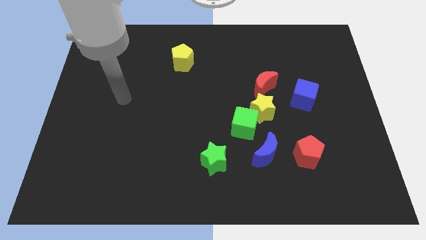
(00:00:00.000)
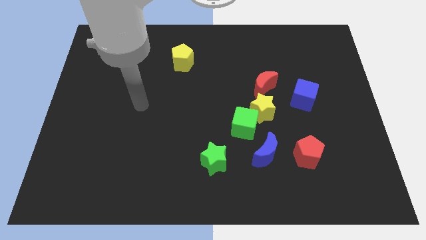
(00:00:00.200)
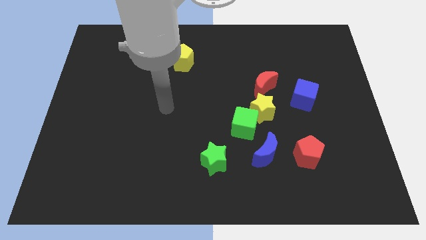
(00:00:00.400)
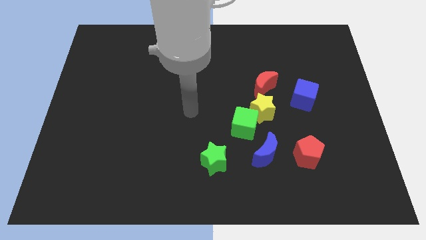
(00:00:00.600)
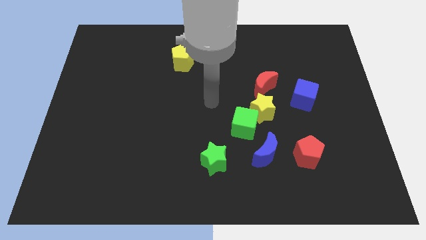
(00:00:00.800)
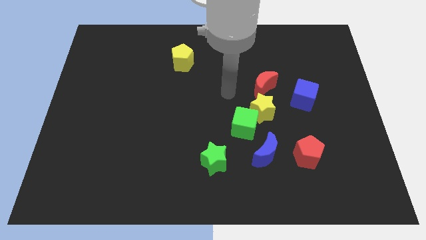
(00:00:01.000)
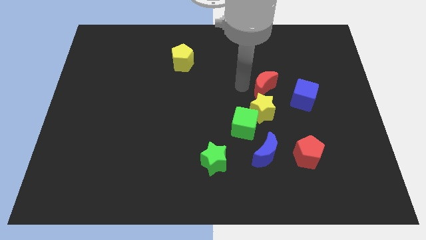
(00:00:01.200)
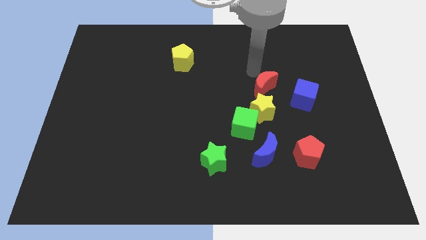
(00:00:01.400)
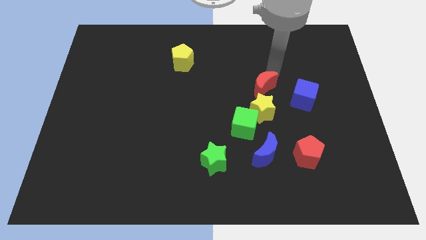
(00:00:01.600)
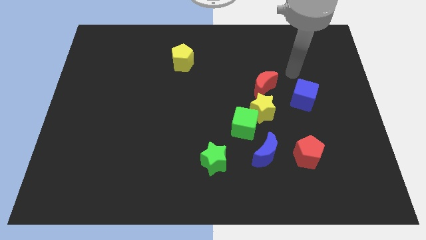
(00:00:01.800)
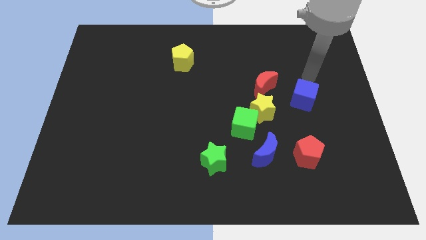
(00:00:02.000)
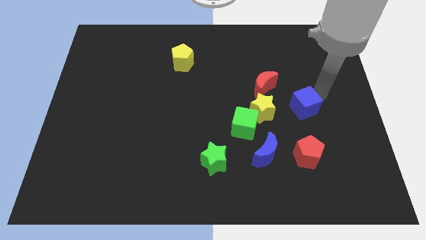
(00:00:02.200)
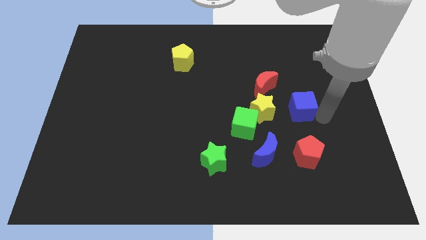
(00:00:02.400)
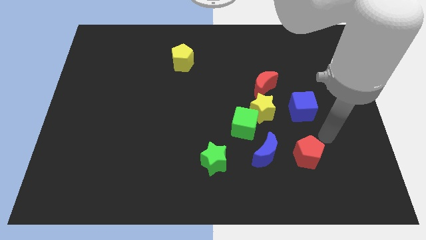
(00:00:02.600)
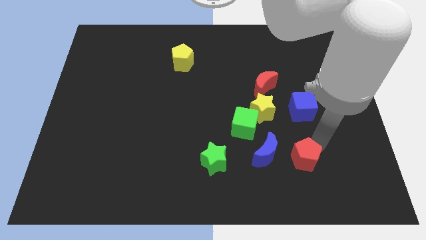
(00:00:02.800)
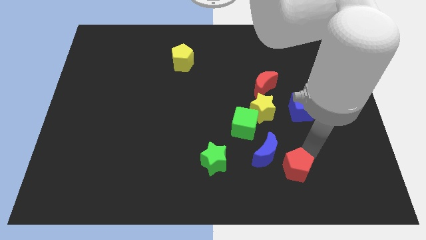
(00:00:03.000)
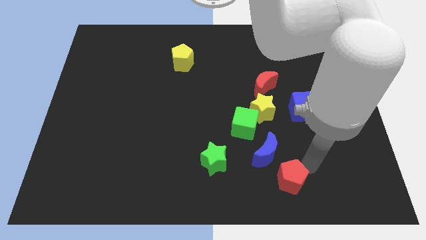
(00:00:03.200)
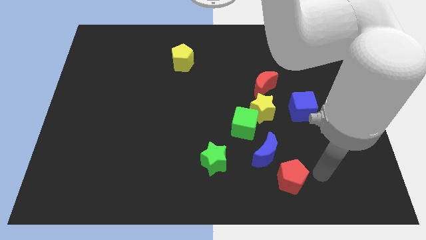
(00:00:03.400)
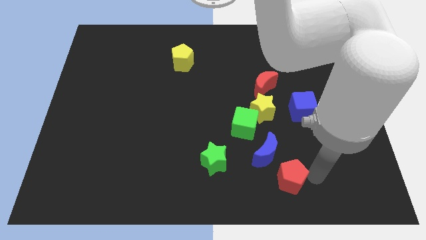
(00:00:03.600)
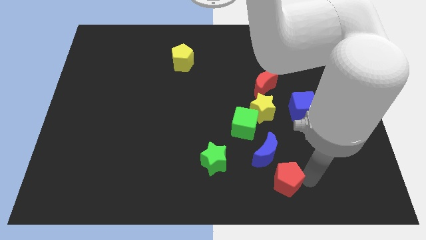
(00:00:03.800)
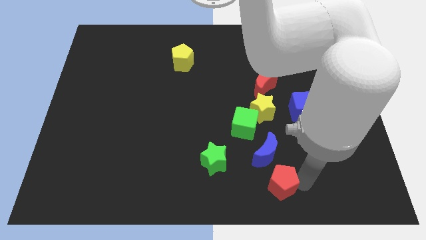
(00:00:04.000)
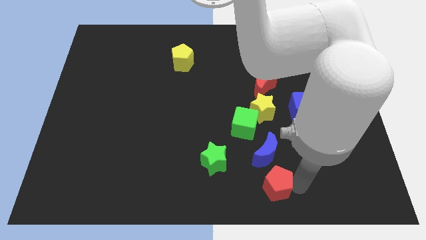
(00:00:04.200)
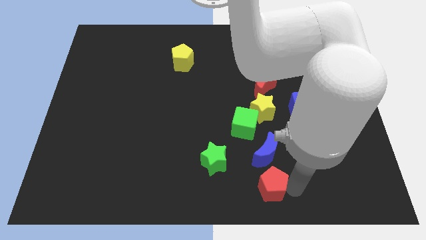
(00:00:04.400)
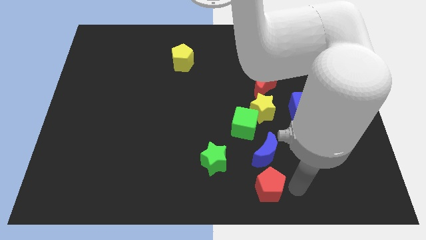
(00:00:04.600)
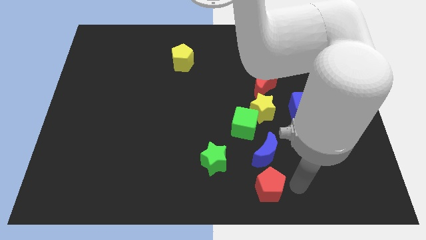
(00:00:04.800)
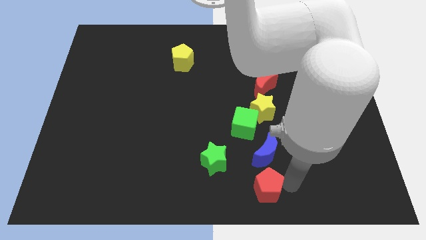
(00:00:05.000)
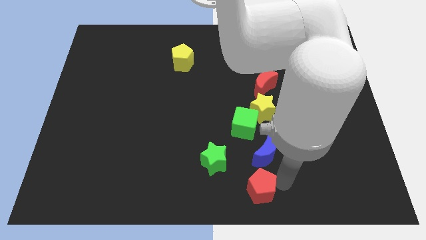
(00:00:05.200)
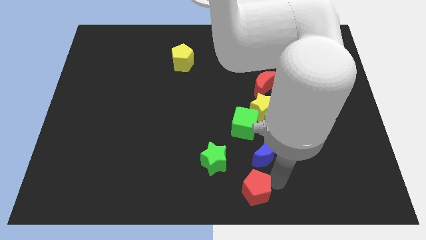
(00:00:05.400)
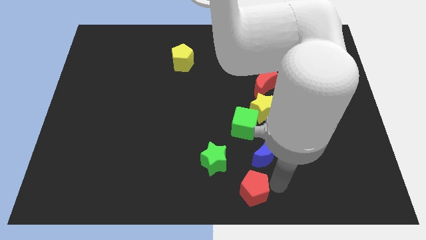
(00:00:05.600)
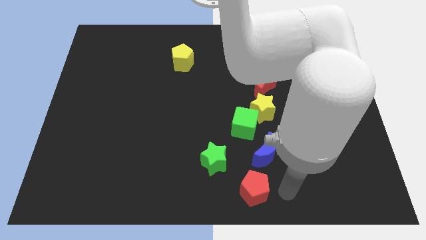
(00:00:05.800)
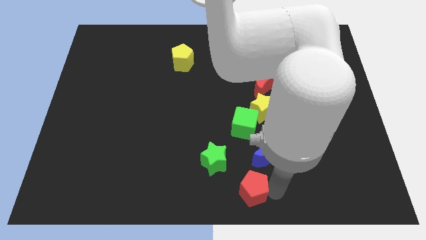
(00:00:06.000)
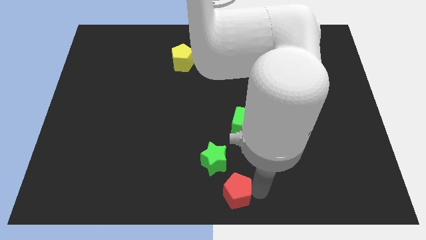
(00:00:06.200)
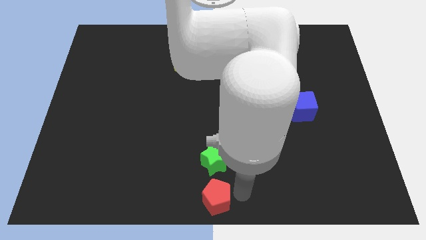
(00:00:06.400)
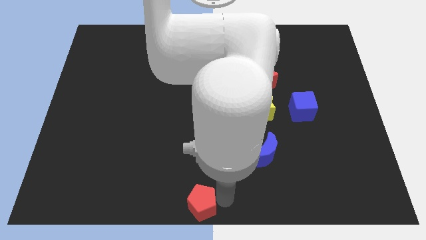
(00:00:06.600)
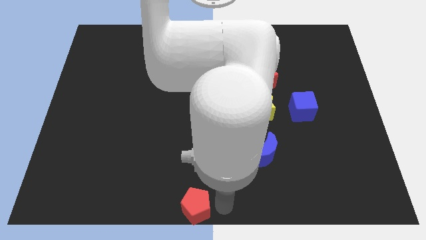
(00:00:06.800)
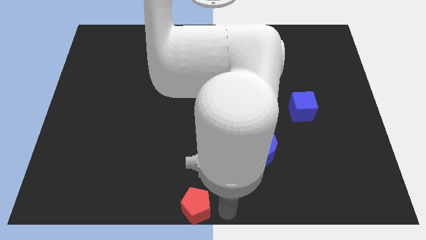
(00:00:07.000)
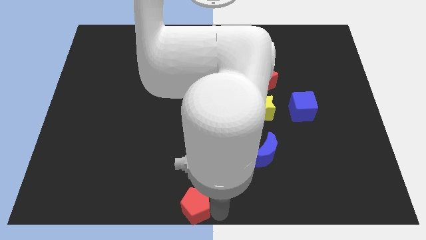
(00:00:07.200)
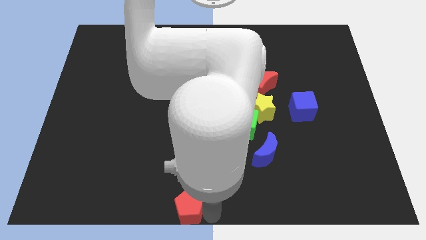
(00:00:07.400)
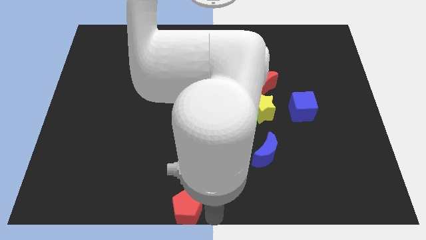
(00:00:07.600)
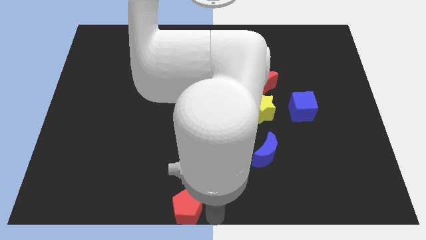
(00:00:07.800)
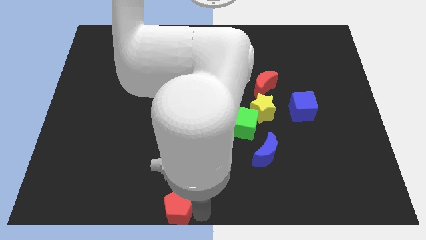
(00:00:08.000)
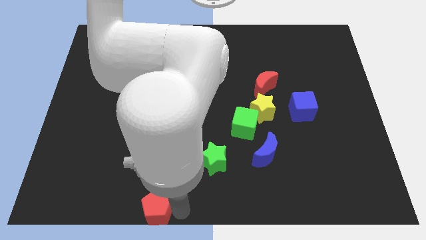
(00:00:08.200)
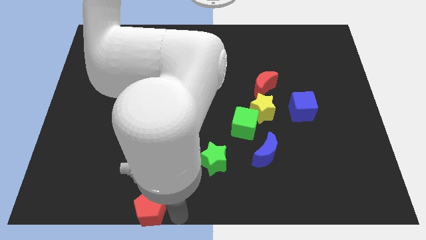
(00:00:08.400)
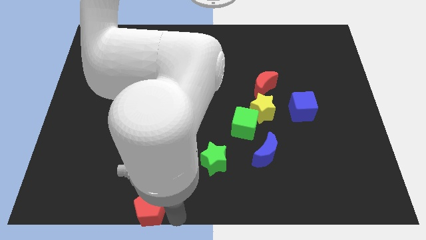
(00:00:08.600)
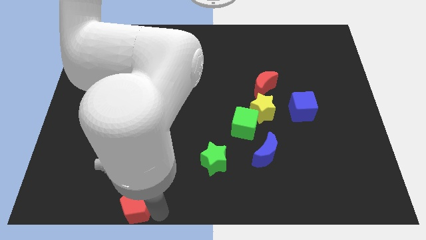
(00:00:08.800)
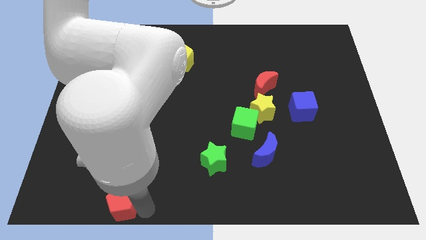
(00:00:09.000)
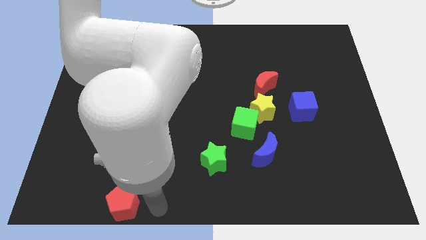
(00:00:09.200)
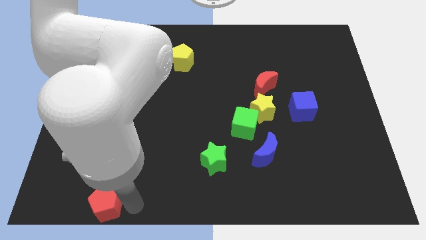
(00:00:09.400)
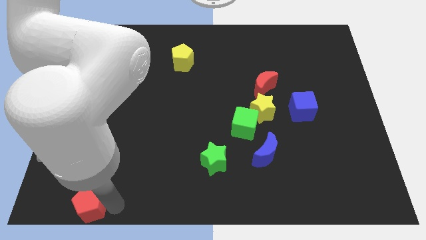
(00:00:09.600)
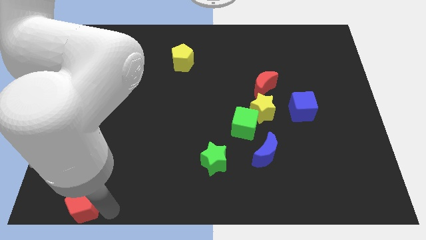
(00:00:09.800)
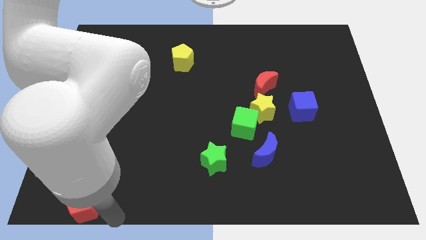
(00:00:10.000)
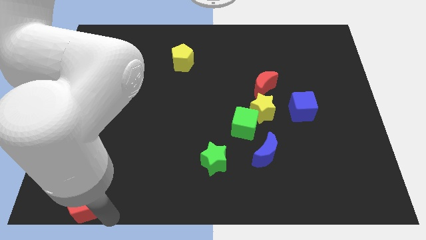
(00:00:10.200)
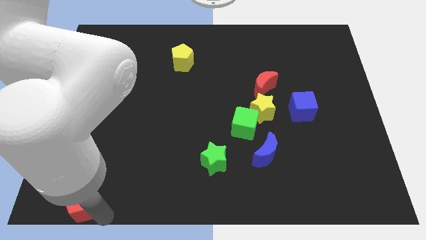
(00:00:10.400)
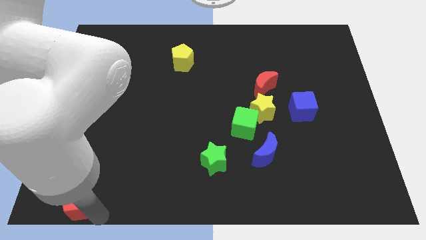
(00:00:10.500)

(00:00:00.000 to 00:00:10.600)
put the red pentagon to the bottom left corner

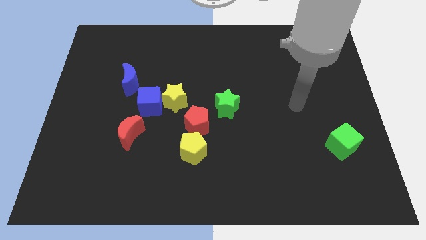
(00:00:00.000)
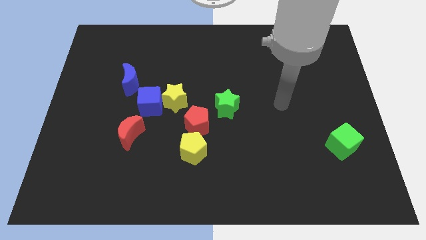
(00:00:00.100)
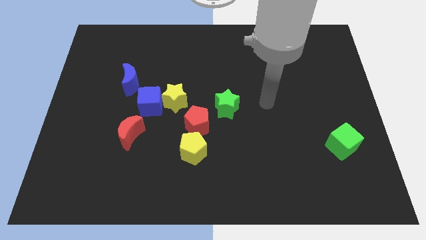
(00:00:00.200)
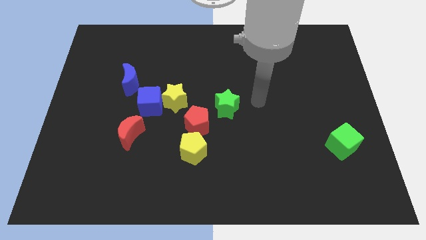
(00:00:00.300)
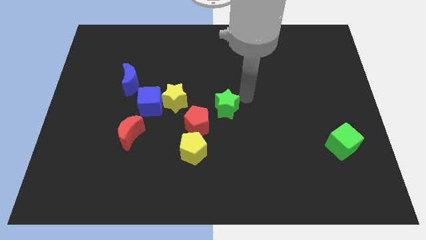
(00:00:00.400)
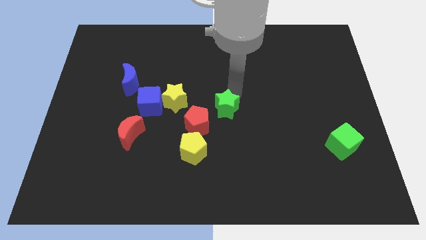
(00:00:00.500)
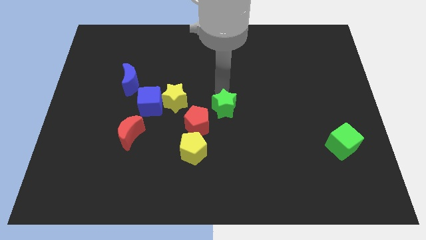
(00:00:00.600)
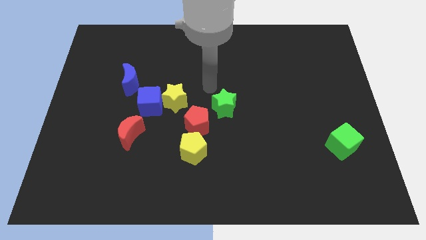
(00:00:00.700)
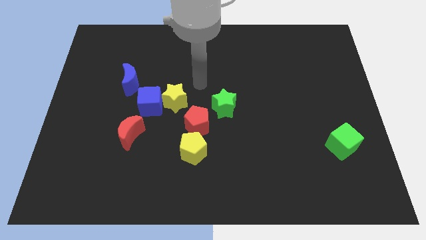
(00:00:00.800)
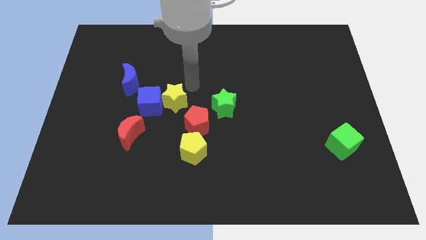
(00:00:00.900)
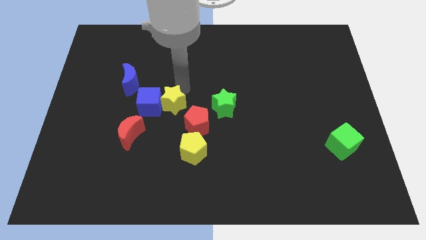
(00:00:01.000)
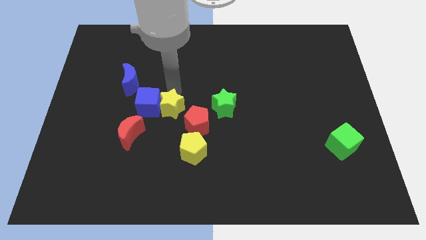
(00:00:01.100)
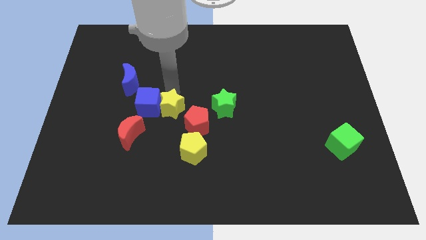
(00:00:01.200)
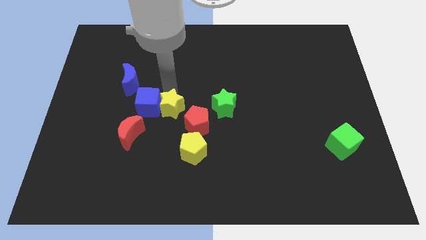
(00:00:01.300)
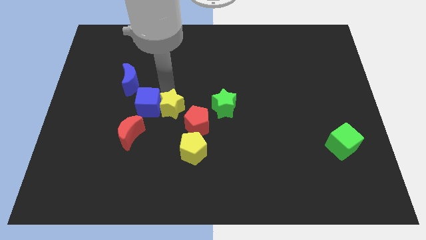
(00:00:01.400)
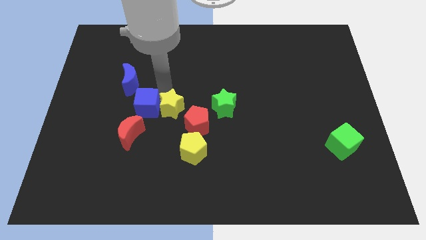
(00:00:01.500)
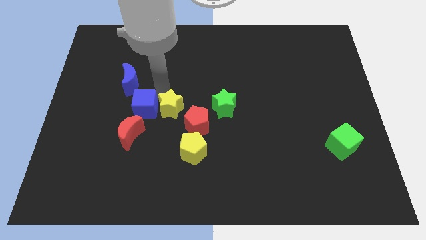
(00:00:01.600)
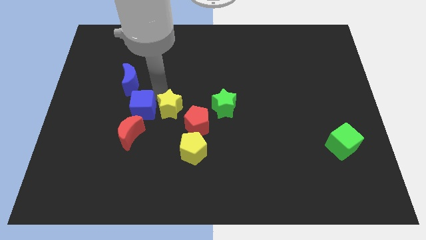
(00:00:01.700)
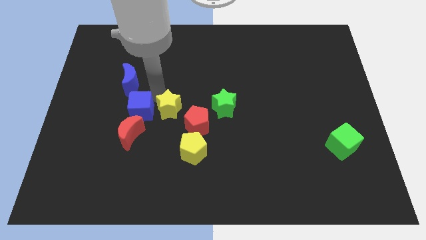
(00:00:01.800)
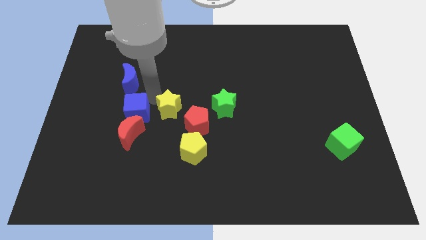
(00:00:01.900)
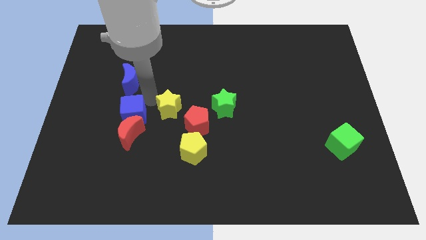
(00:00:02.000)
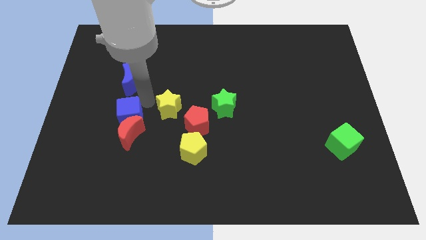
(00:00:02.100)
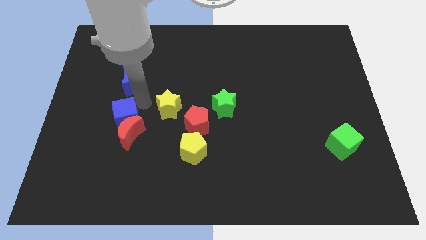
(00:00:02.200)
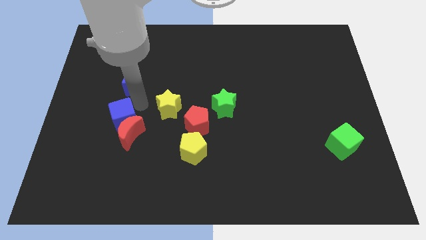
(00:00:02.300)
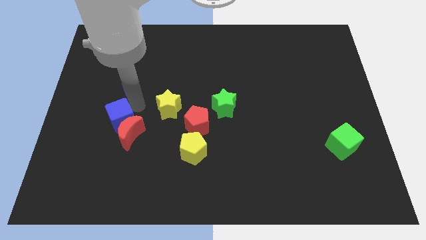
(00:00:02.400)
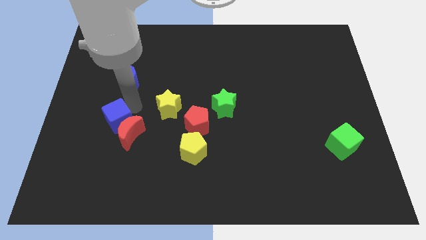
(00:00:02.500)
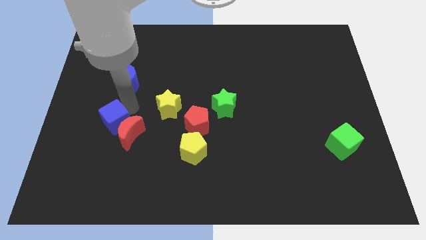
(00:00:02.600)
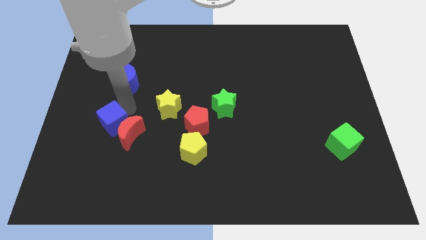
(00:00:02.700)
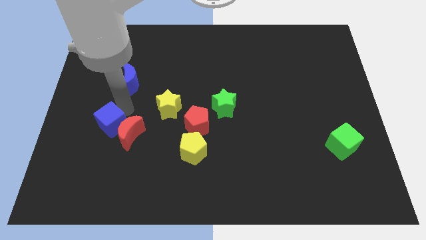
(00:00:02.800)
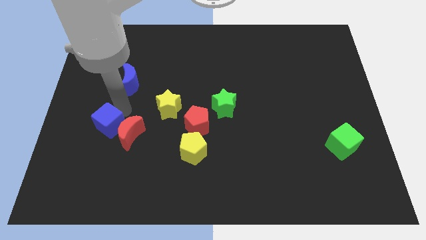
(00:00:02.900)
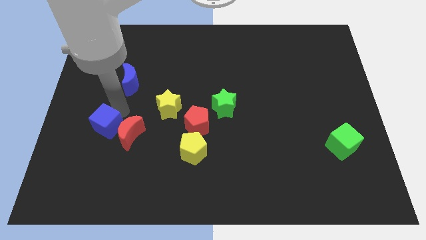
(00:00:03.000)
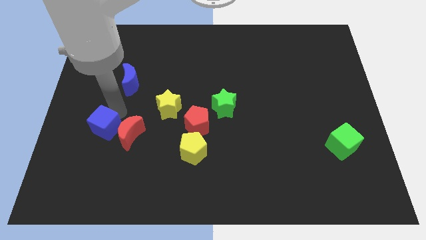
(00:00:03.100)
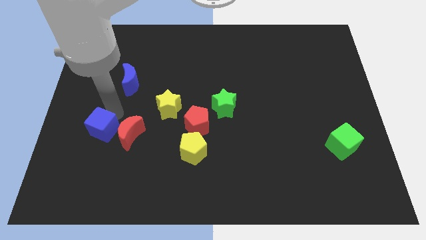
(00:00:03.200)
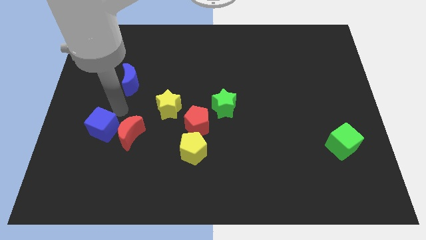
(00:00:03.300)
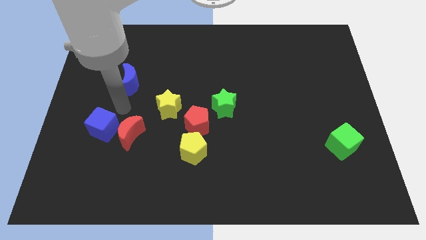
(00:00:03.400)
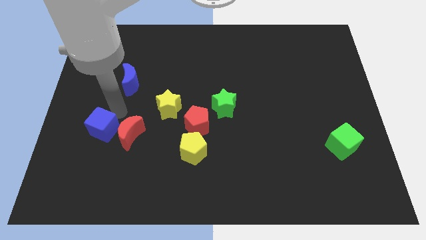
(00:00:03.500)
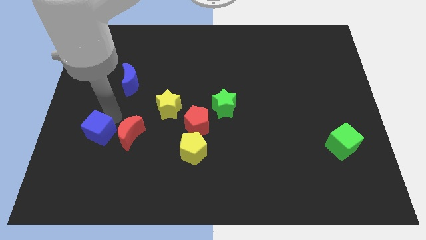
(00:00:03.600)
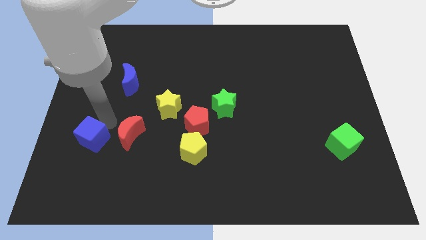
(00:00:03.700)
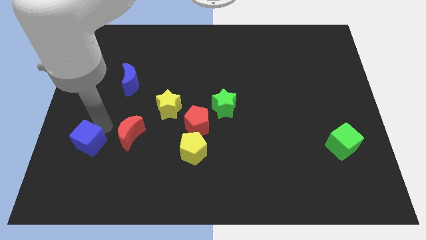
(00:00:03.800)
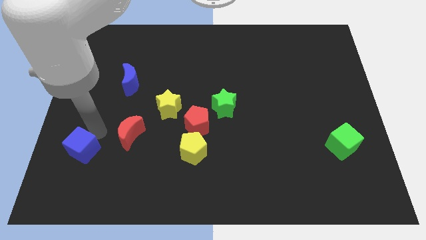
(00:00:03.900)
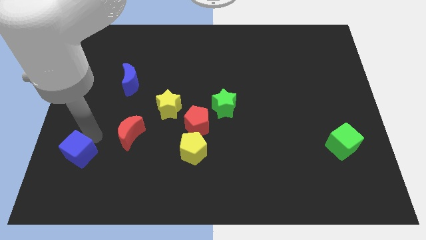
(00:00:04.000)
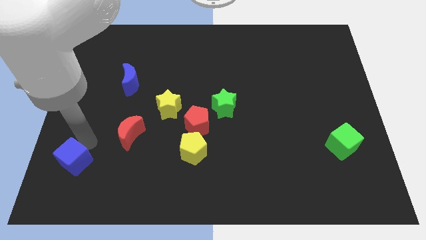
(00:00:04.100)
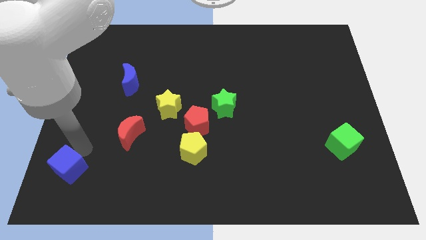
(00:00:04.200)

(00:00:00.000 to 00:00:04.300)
put the blue cube to the bottom left corner
